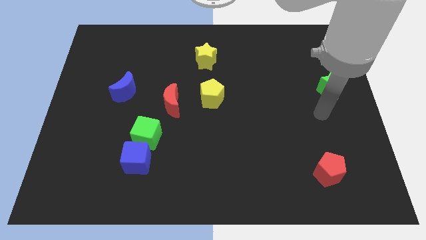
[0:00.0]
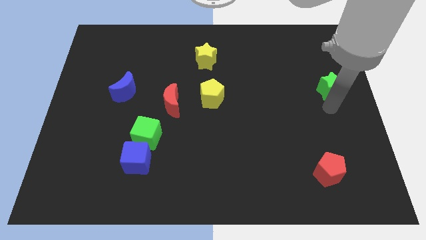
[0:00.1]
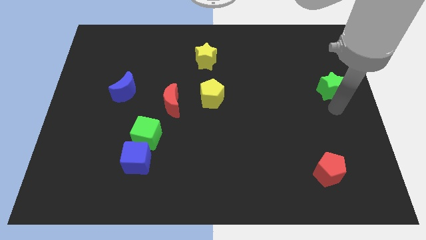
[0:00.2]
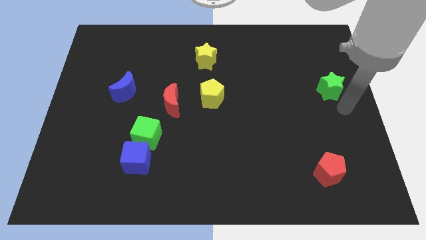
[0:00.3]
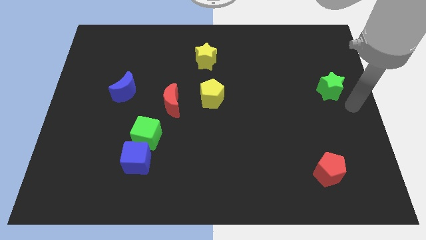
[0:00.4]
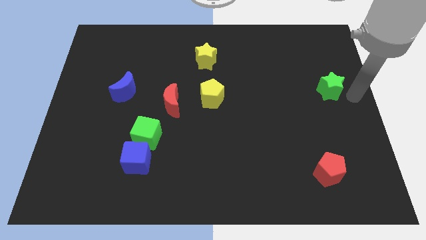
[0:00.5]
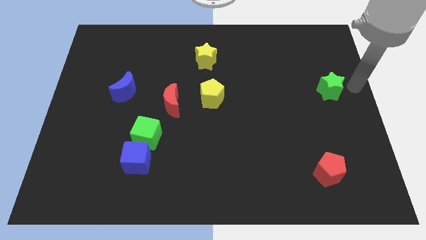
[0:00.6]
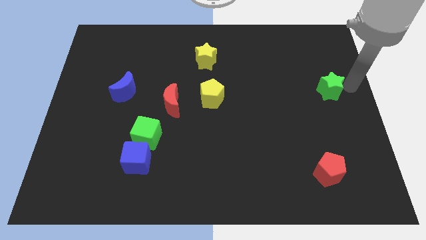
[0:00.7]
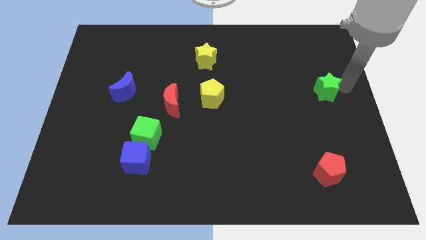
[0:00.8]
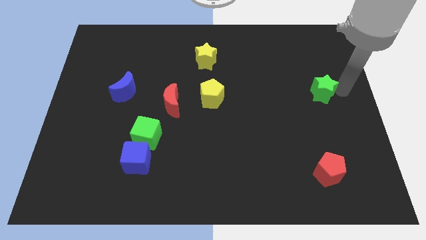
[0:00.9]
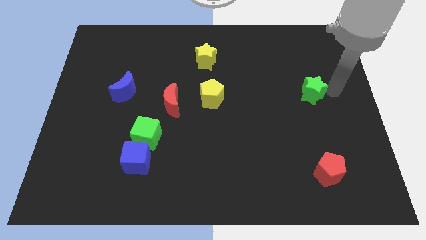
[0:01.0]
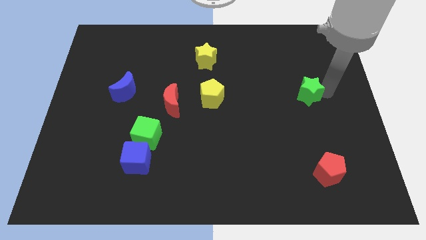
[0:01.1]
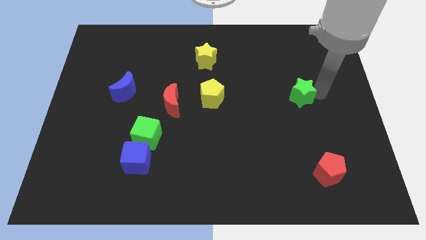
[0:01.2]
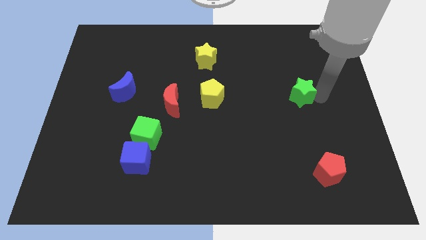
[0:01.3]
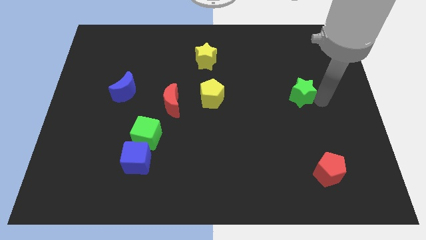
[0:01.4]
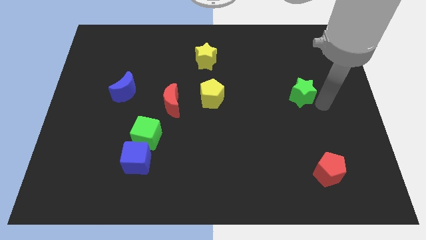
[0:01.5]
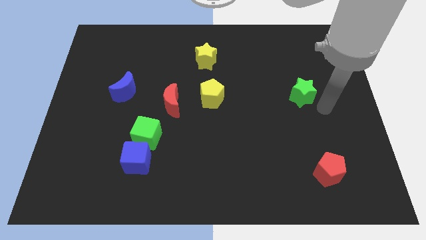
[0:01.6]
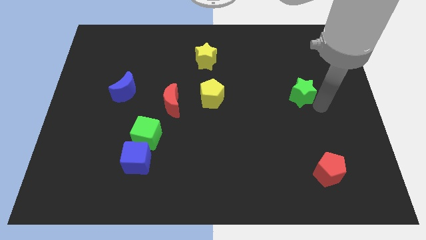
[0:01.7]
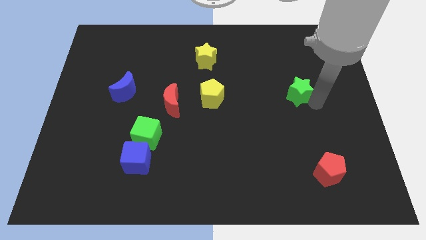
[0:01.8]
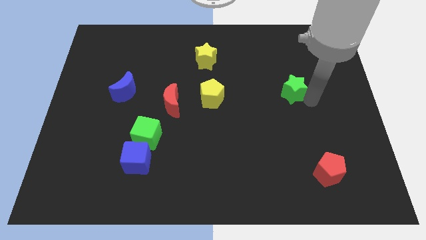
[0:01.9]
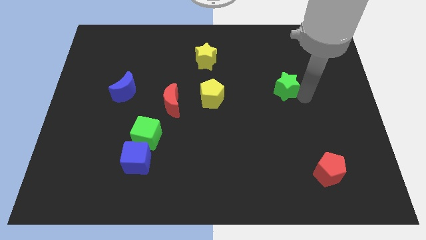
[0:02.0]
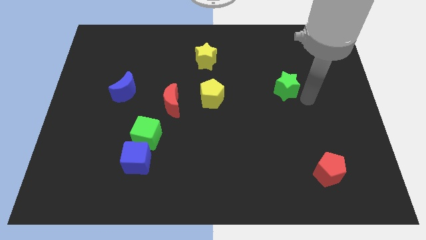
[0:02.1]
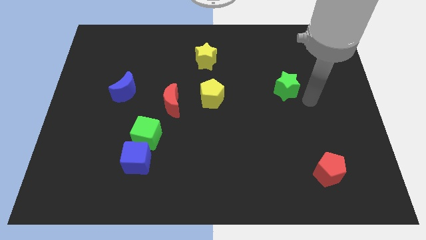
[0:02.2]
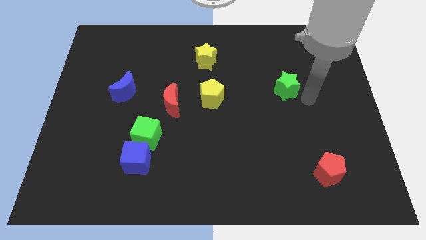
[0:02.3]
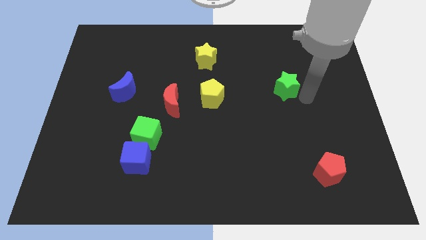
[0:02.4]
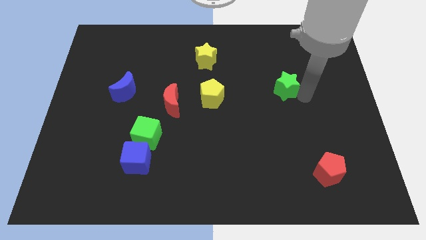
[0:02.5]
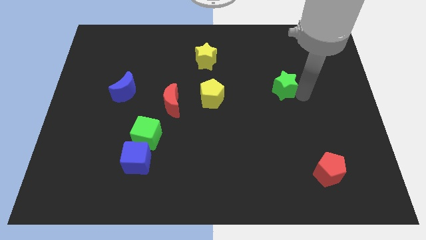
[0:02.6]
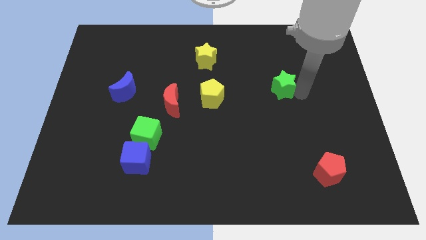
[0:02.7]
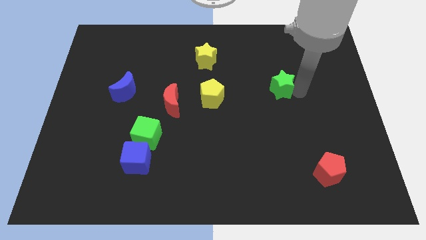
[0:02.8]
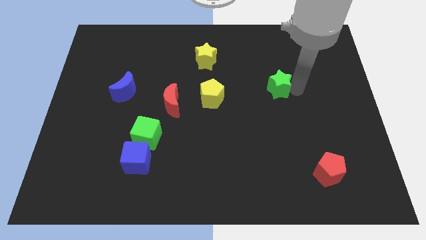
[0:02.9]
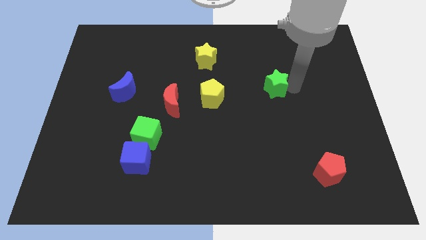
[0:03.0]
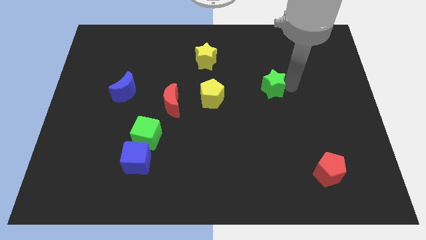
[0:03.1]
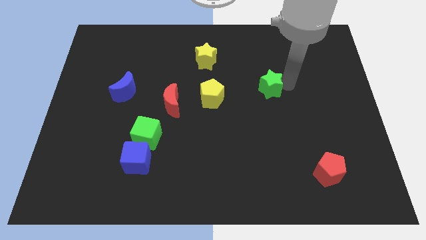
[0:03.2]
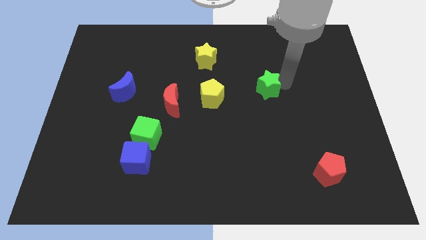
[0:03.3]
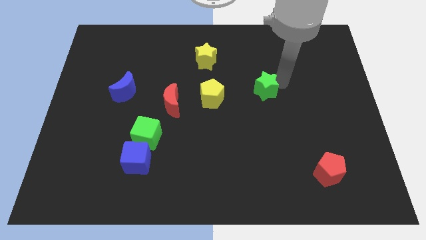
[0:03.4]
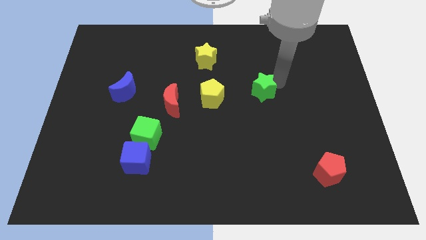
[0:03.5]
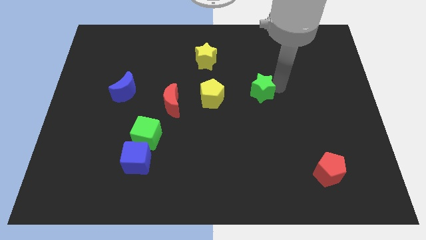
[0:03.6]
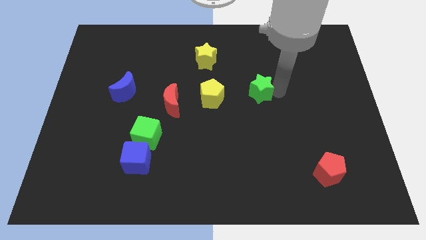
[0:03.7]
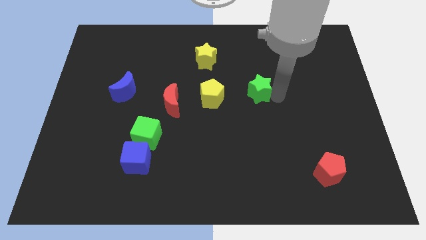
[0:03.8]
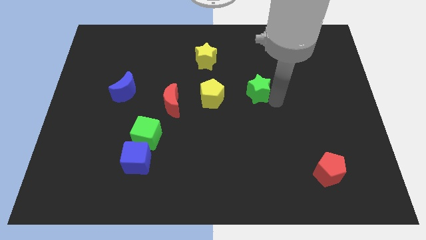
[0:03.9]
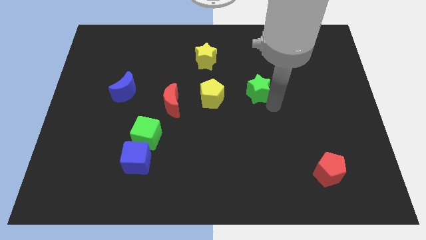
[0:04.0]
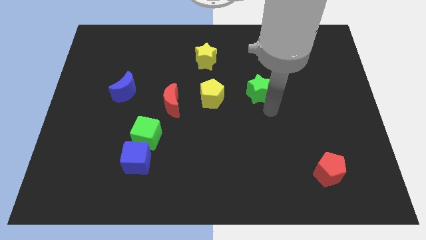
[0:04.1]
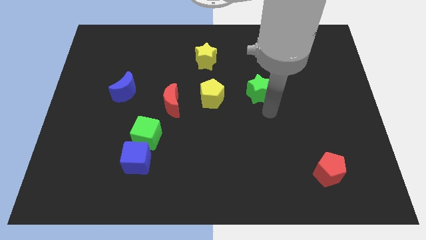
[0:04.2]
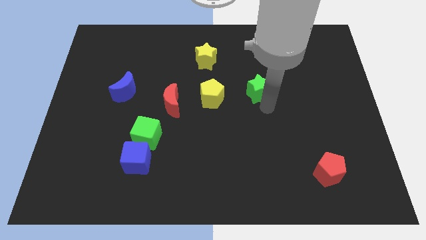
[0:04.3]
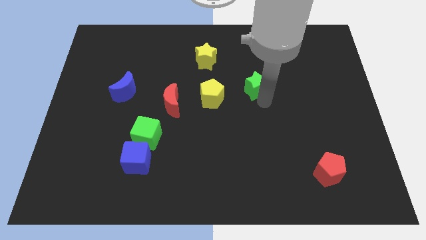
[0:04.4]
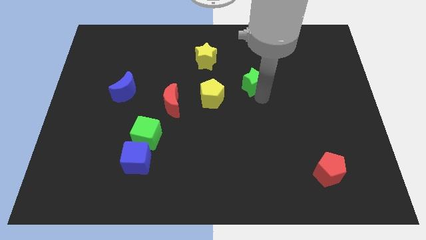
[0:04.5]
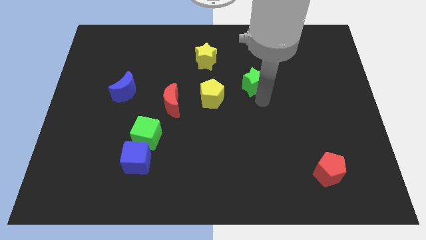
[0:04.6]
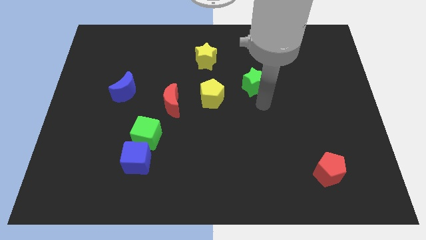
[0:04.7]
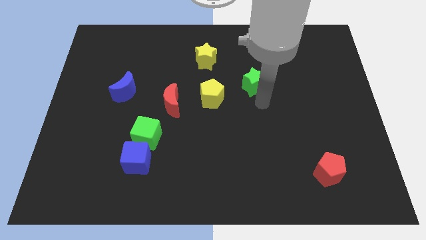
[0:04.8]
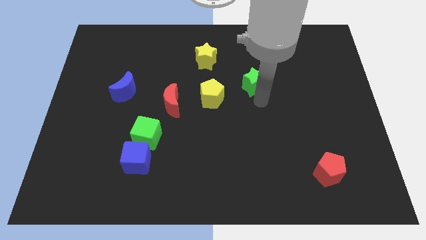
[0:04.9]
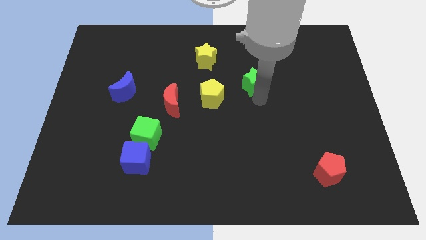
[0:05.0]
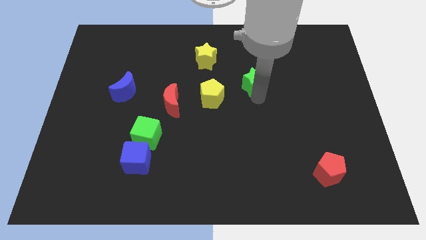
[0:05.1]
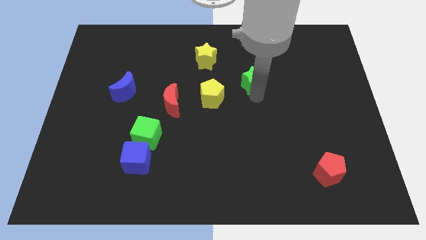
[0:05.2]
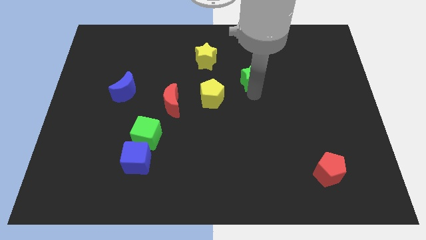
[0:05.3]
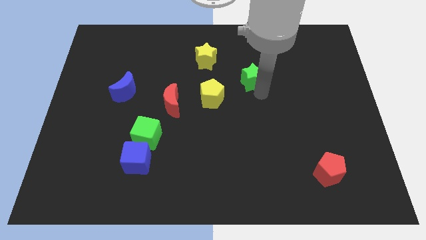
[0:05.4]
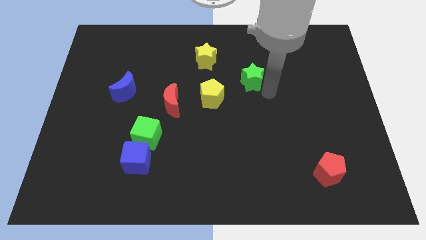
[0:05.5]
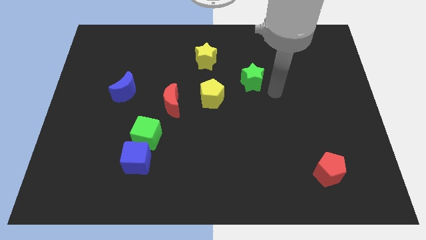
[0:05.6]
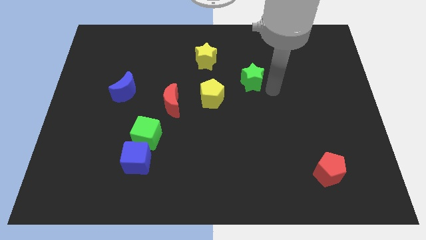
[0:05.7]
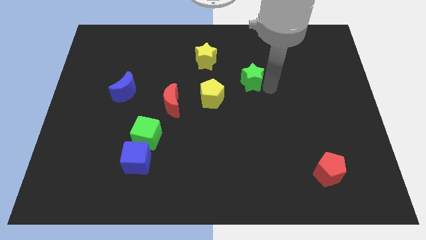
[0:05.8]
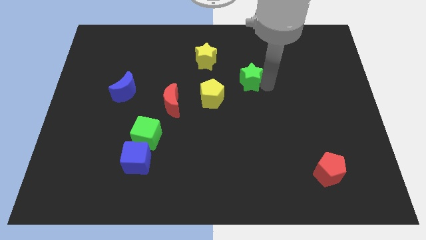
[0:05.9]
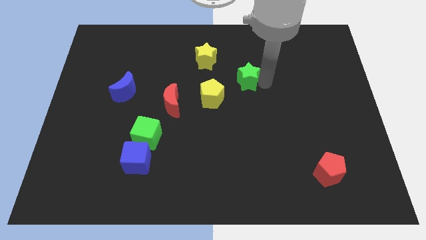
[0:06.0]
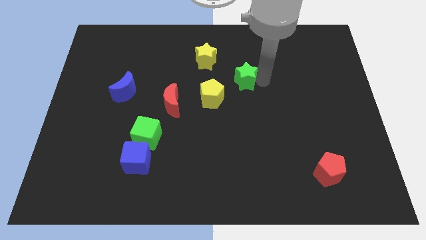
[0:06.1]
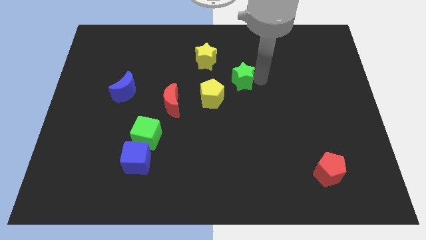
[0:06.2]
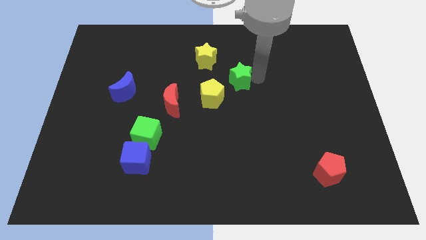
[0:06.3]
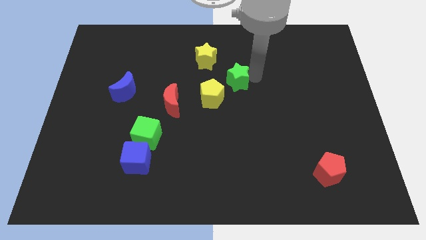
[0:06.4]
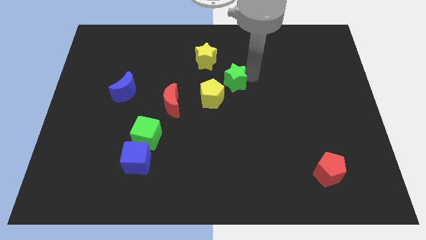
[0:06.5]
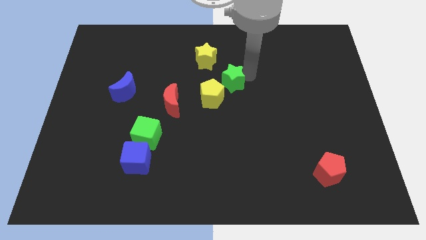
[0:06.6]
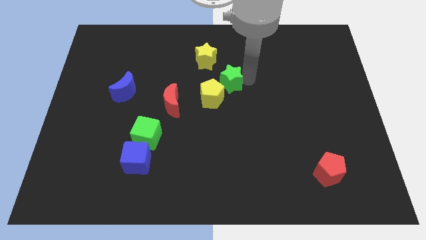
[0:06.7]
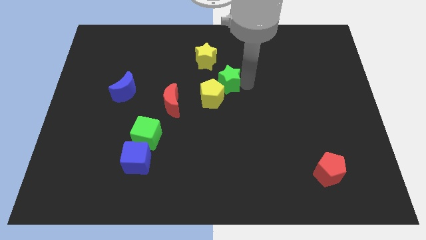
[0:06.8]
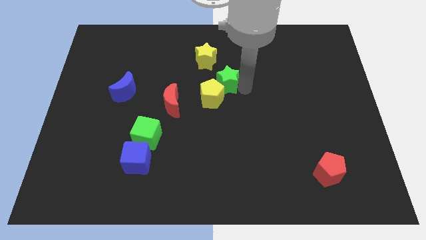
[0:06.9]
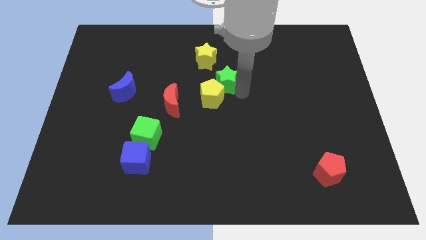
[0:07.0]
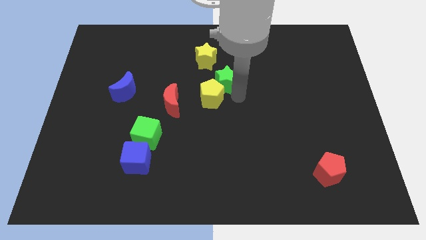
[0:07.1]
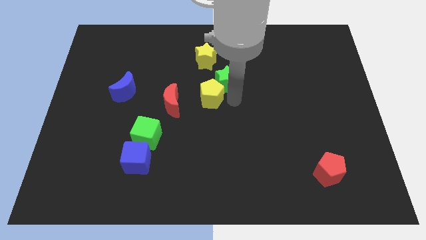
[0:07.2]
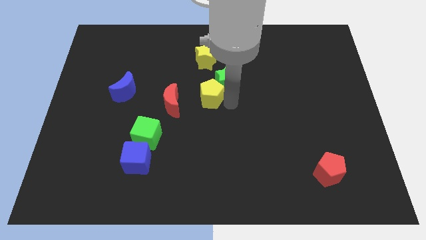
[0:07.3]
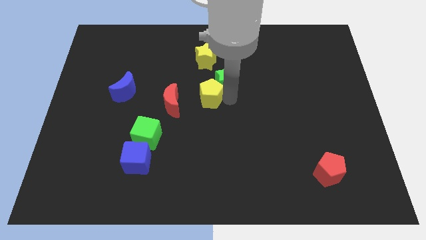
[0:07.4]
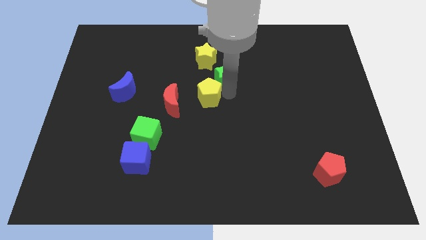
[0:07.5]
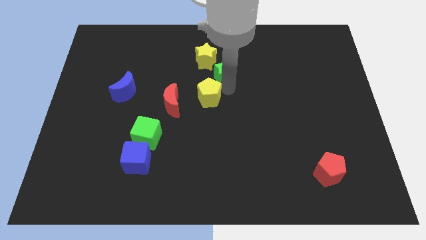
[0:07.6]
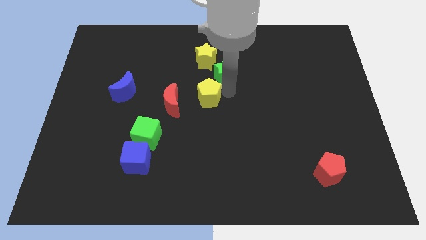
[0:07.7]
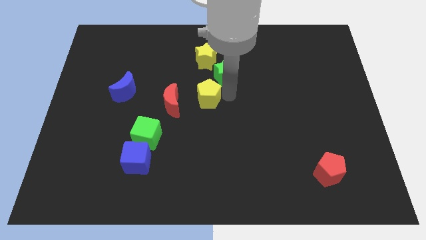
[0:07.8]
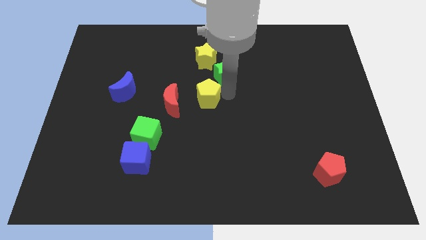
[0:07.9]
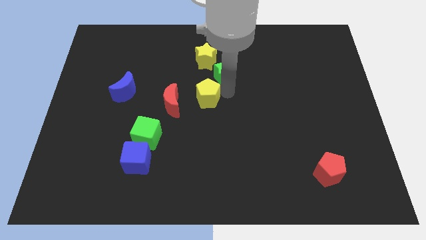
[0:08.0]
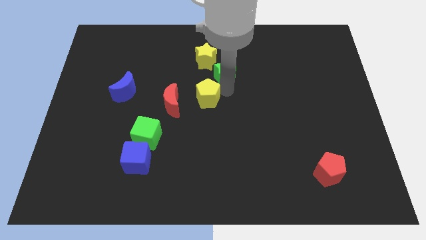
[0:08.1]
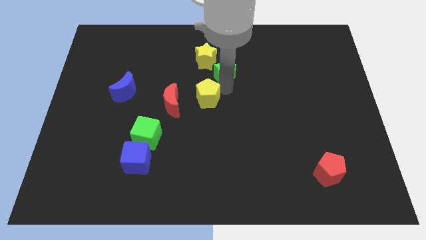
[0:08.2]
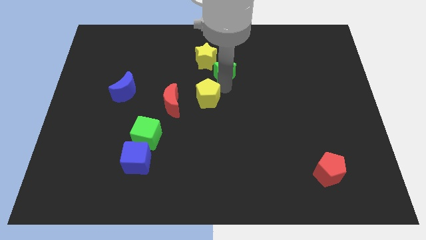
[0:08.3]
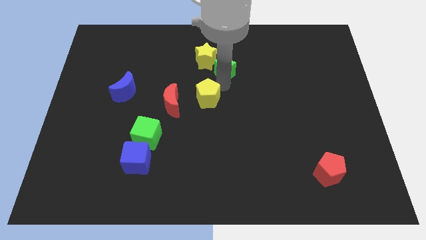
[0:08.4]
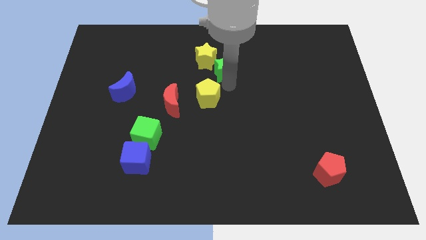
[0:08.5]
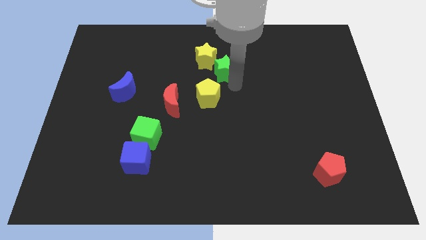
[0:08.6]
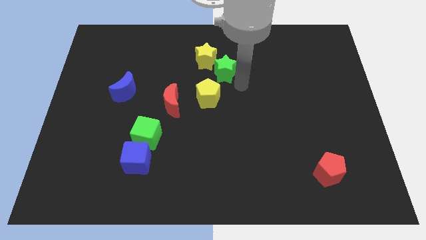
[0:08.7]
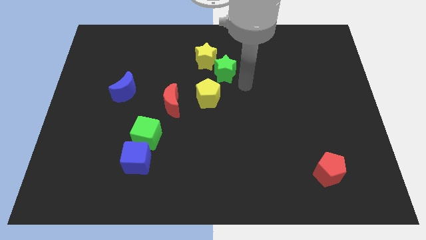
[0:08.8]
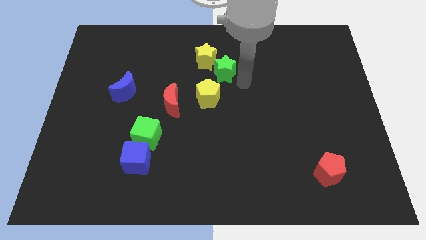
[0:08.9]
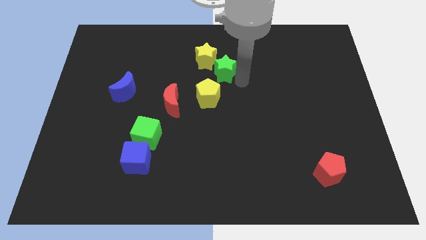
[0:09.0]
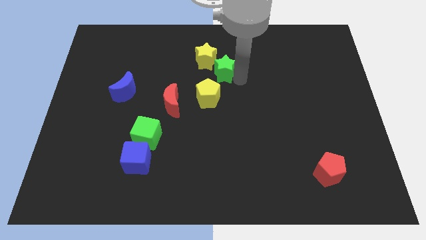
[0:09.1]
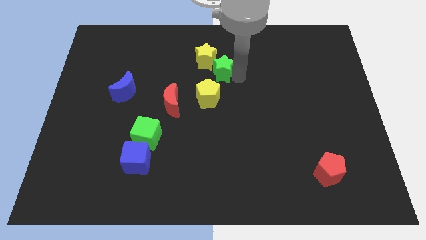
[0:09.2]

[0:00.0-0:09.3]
slide the green star to the yellow star
